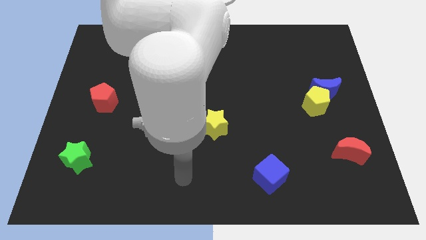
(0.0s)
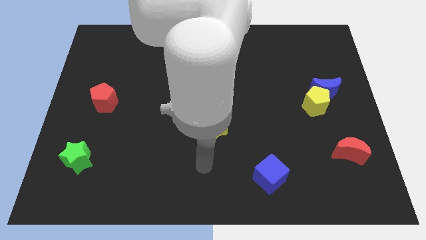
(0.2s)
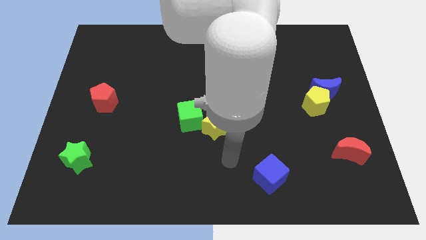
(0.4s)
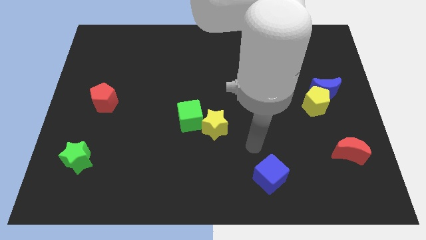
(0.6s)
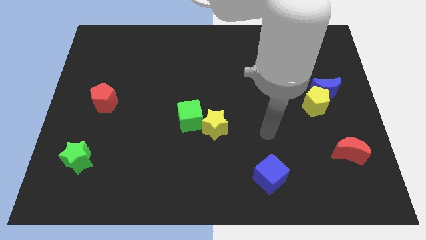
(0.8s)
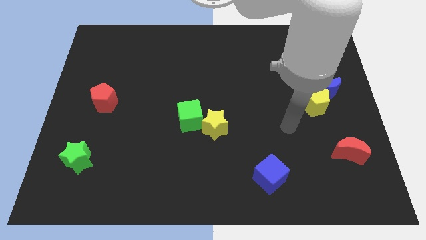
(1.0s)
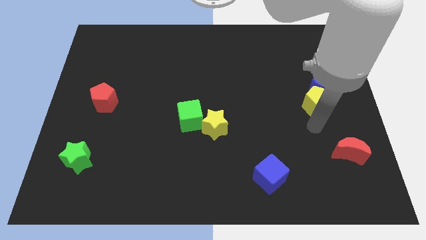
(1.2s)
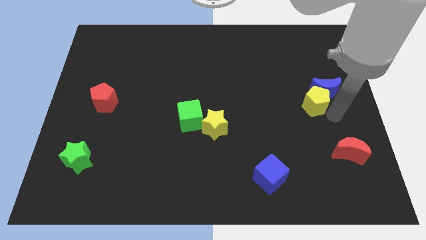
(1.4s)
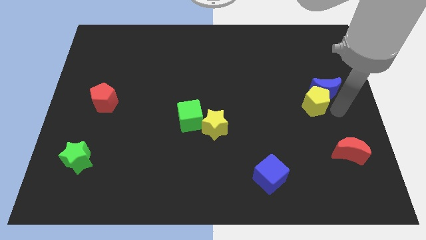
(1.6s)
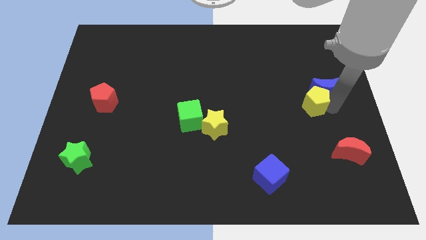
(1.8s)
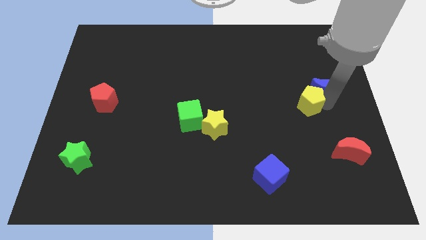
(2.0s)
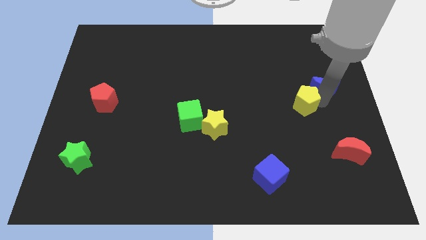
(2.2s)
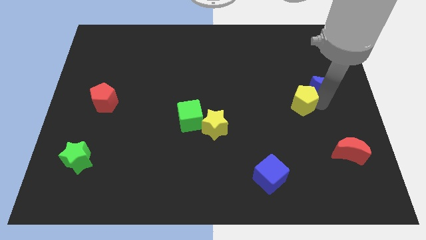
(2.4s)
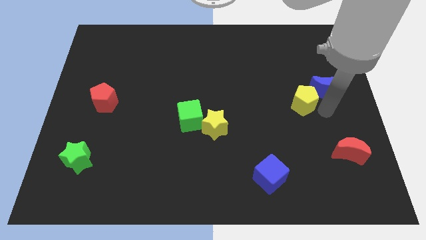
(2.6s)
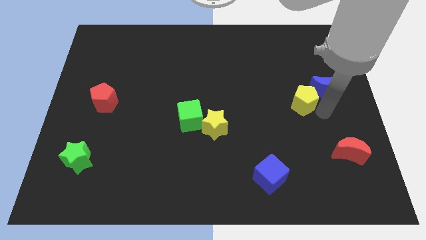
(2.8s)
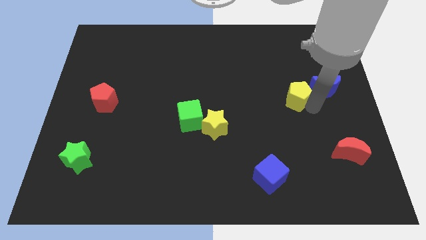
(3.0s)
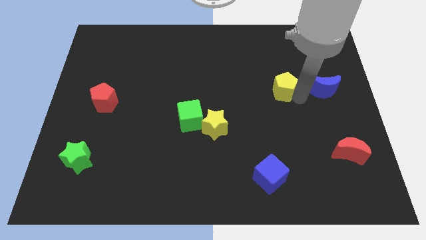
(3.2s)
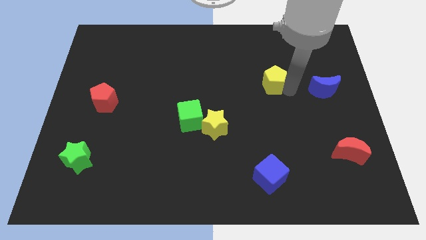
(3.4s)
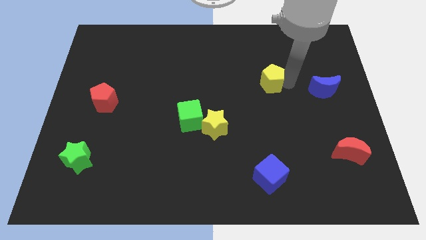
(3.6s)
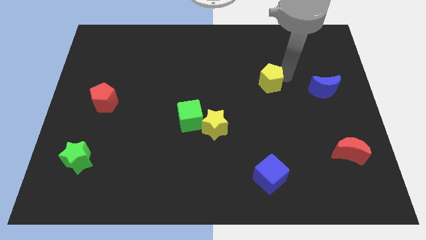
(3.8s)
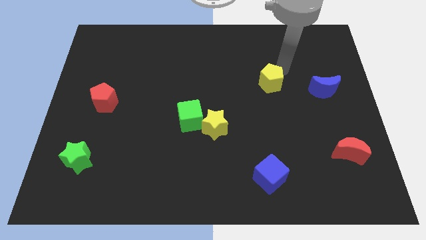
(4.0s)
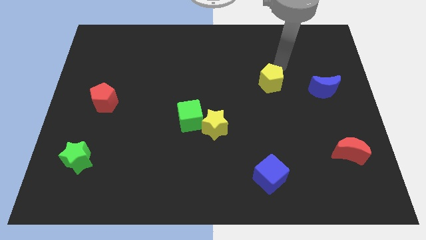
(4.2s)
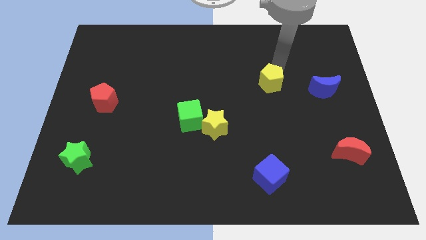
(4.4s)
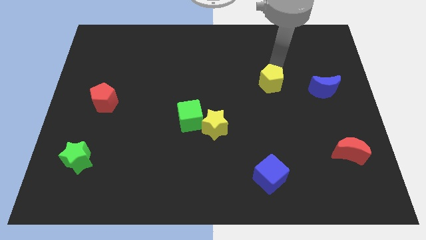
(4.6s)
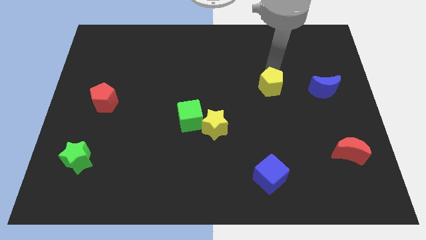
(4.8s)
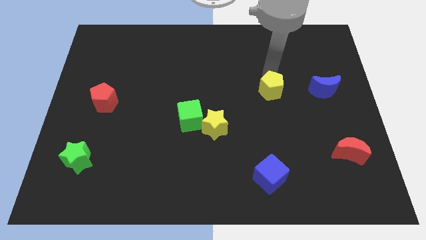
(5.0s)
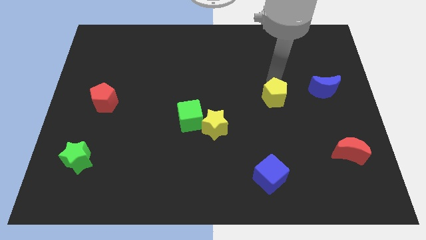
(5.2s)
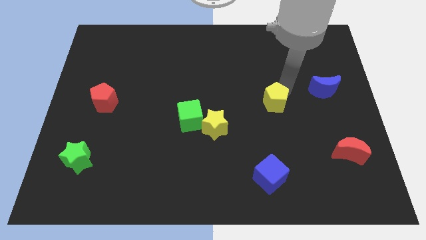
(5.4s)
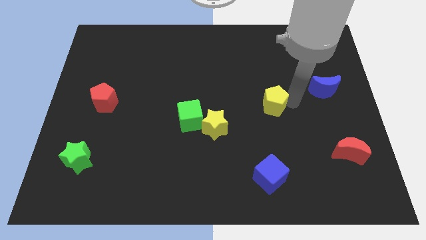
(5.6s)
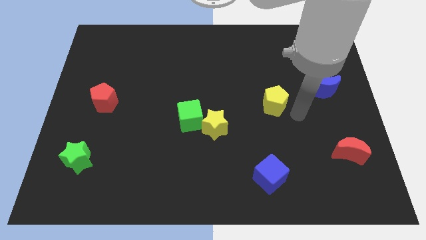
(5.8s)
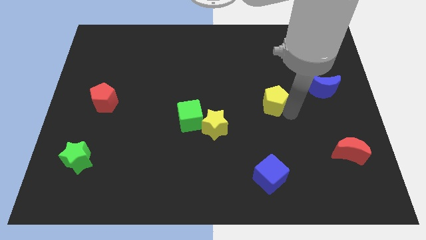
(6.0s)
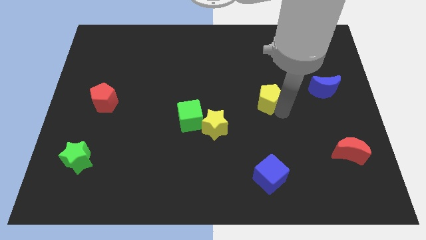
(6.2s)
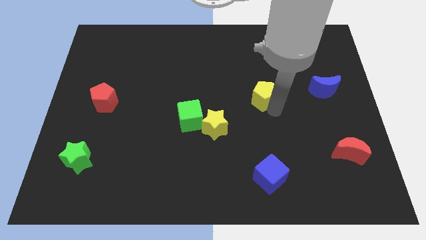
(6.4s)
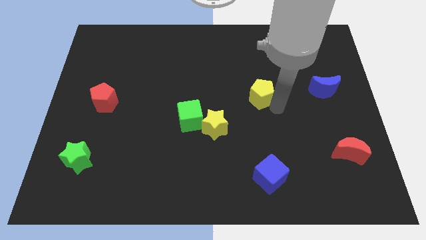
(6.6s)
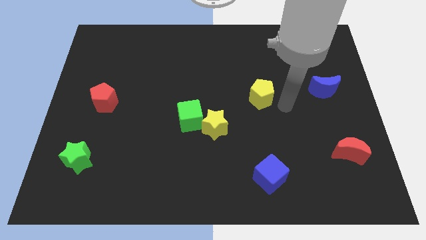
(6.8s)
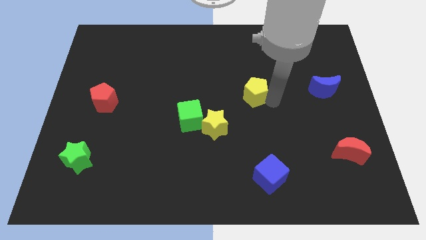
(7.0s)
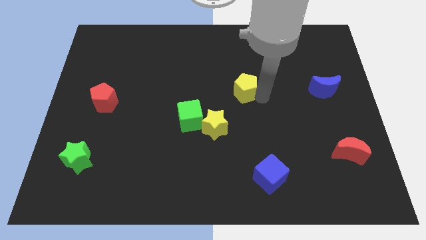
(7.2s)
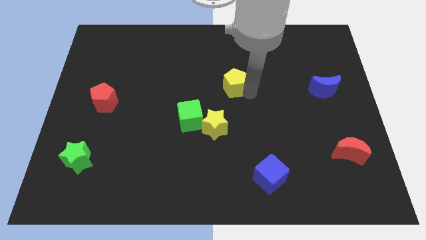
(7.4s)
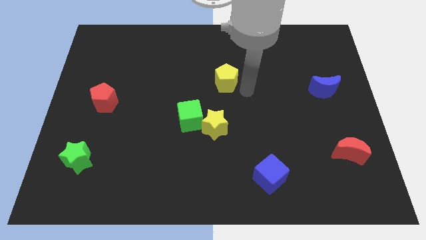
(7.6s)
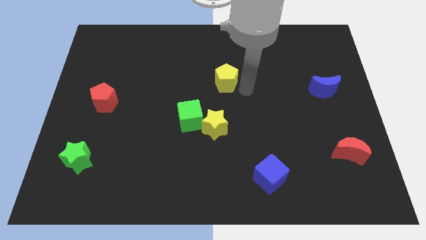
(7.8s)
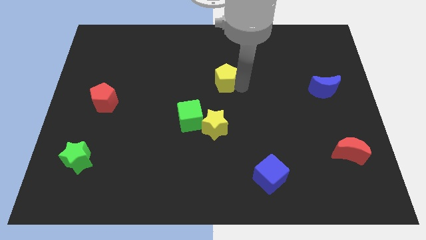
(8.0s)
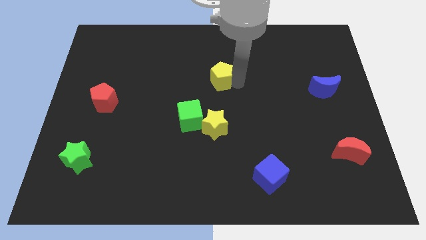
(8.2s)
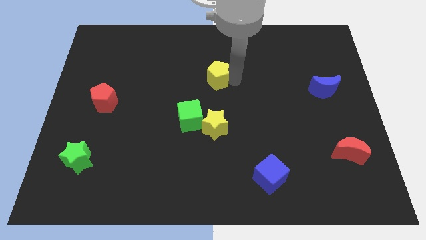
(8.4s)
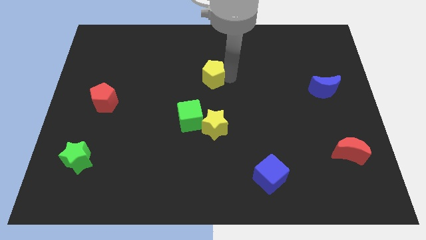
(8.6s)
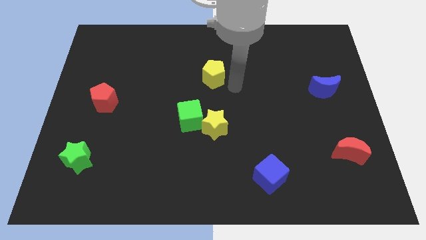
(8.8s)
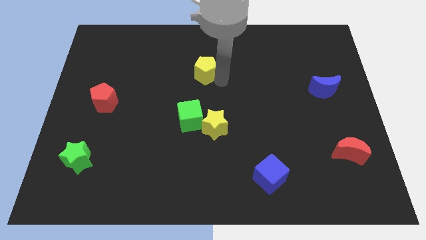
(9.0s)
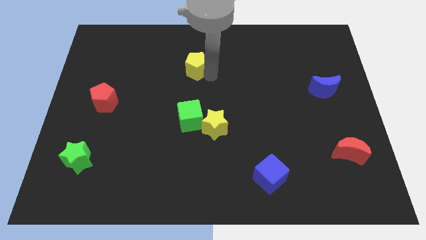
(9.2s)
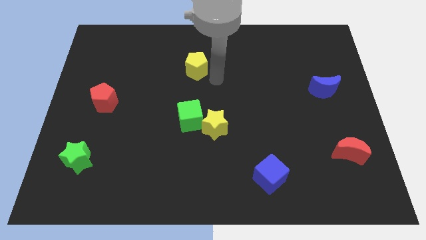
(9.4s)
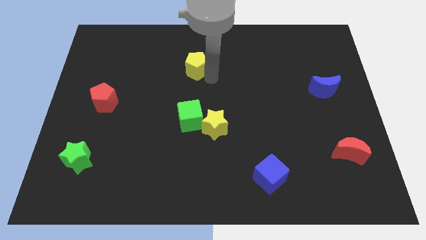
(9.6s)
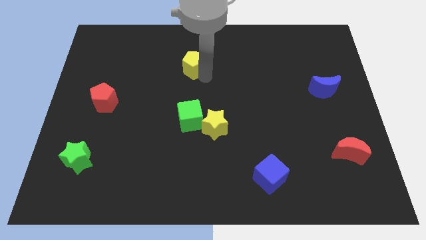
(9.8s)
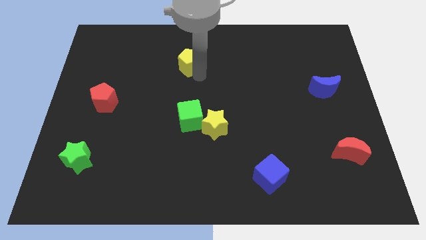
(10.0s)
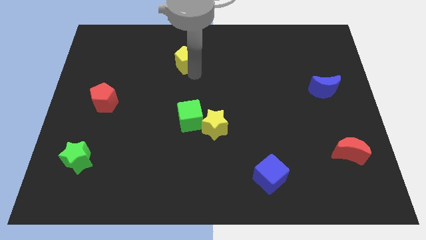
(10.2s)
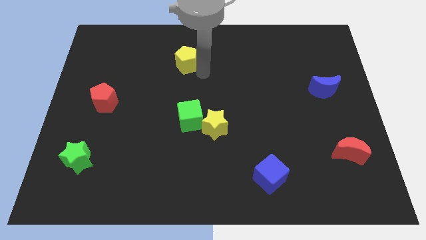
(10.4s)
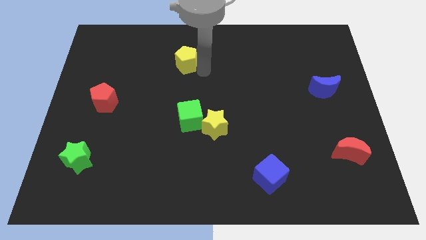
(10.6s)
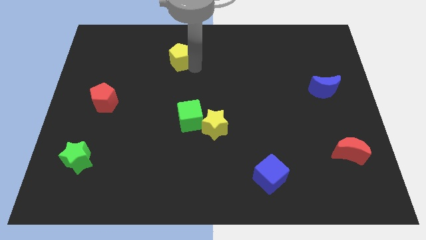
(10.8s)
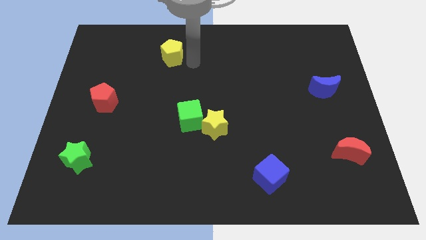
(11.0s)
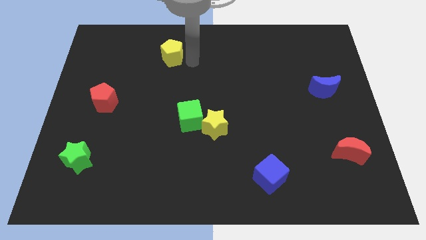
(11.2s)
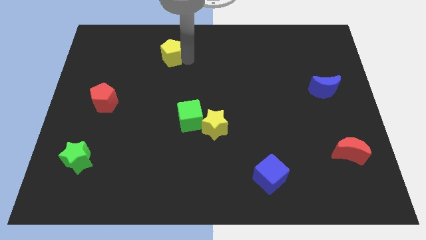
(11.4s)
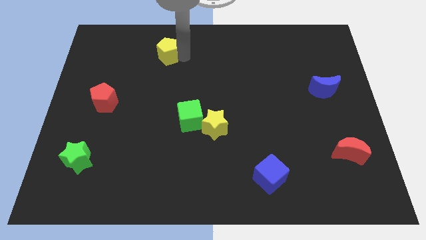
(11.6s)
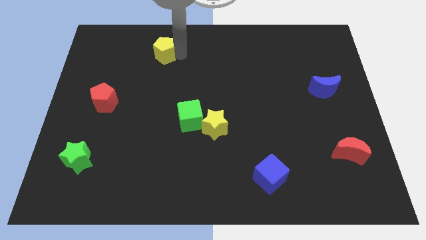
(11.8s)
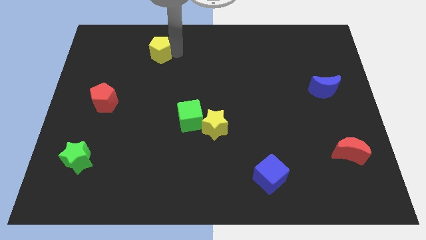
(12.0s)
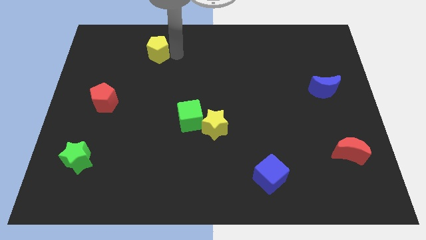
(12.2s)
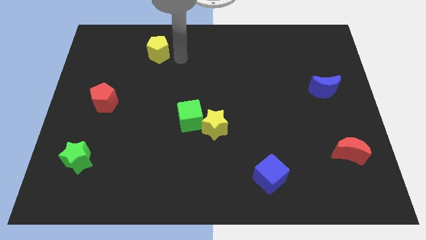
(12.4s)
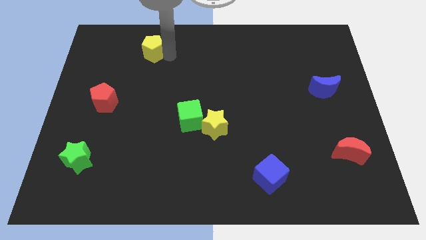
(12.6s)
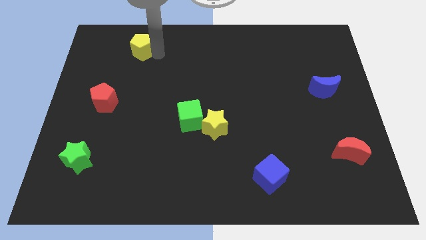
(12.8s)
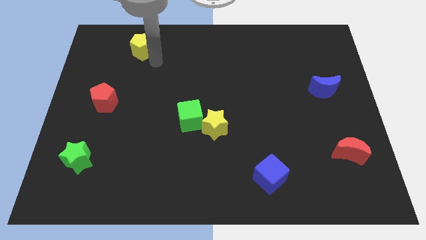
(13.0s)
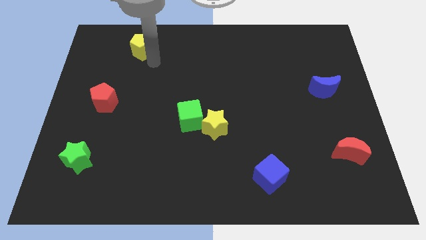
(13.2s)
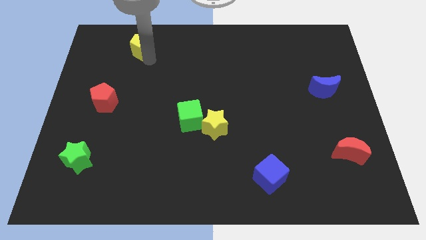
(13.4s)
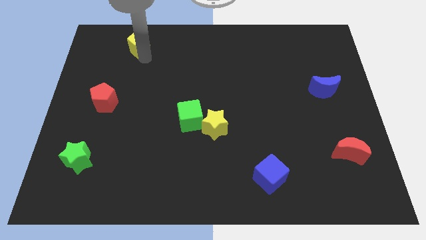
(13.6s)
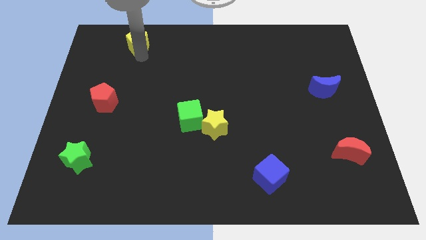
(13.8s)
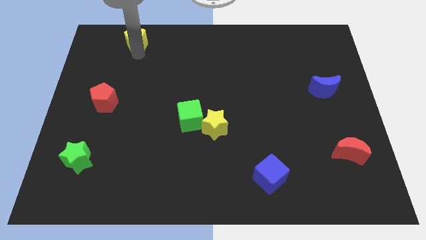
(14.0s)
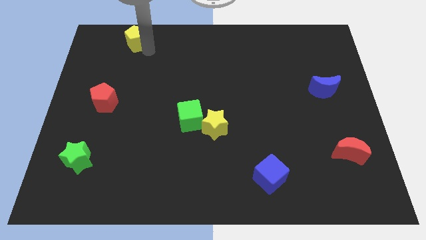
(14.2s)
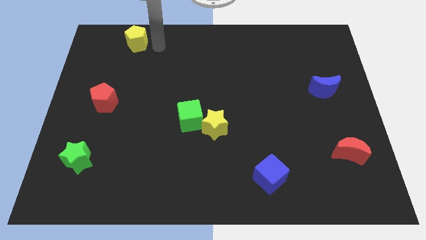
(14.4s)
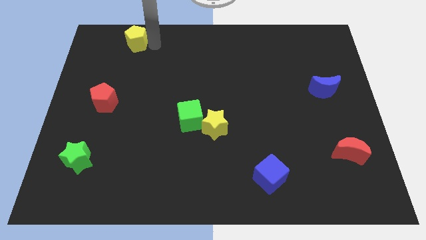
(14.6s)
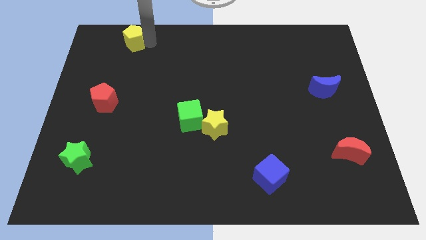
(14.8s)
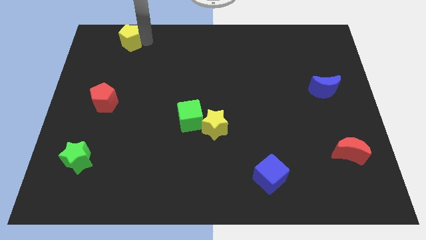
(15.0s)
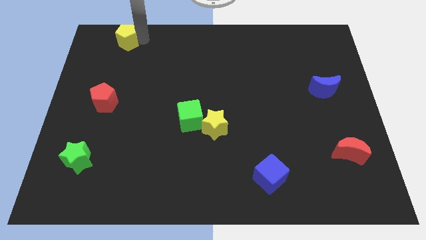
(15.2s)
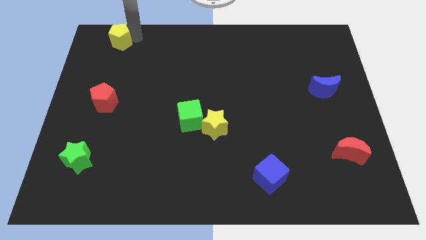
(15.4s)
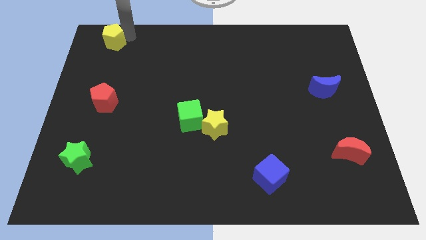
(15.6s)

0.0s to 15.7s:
slide the yellow pentagon to the upper left corner
